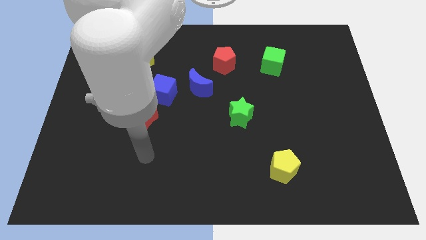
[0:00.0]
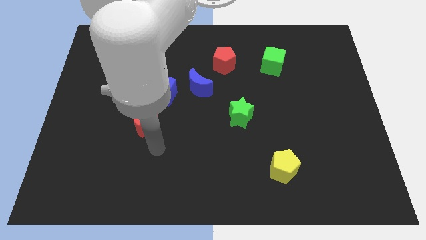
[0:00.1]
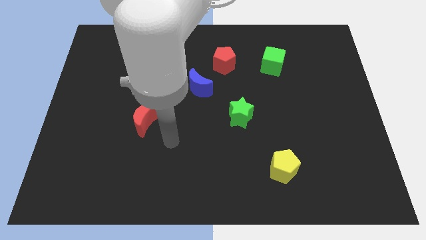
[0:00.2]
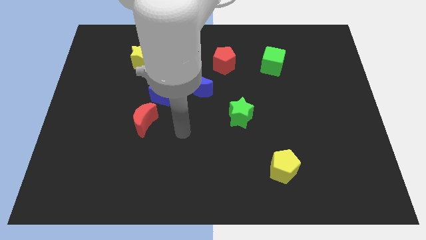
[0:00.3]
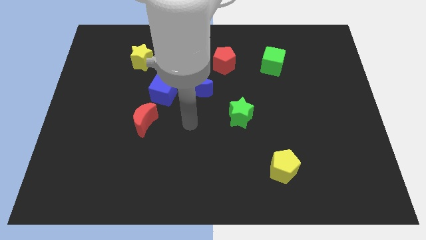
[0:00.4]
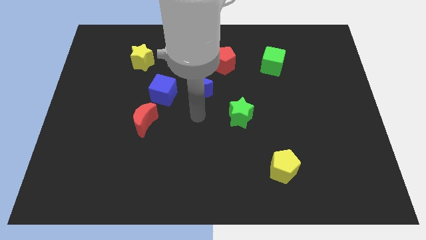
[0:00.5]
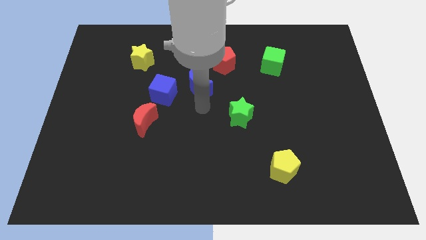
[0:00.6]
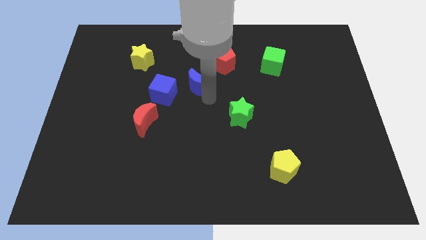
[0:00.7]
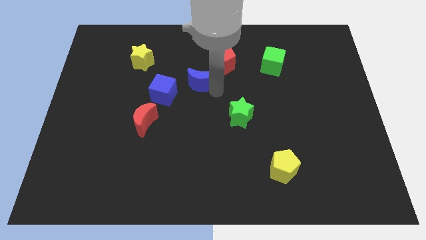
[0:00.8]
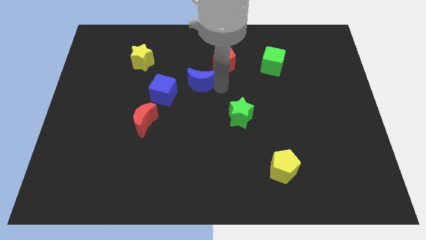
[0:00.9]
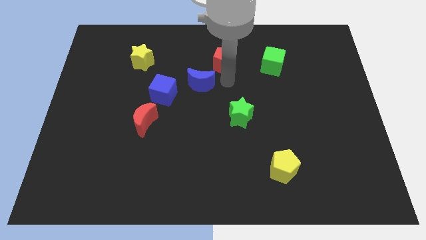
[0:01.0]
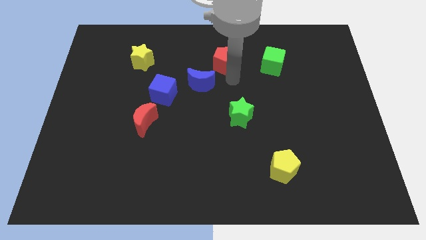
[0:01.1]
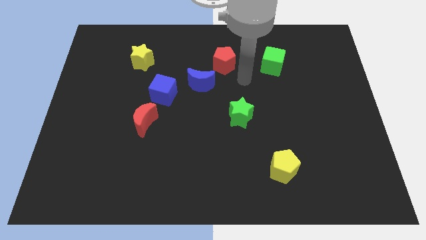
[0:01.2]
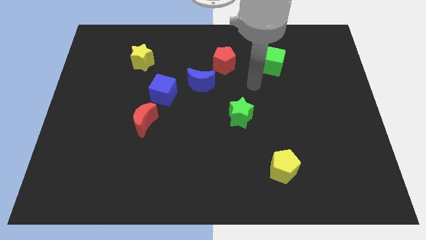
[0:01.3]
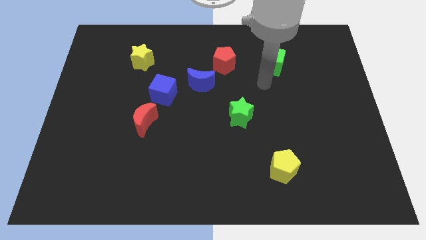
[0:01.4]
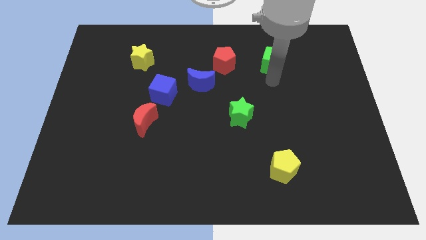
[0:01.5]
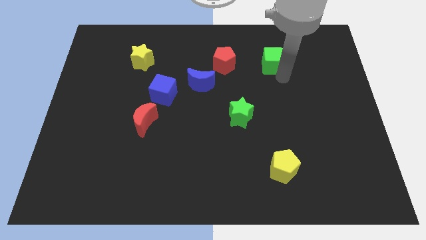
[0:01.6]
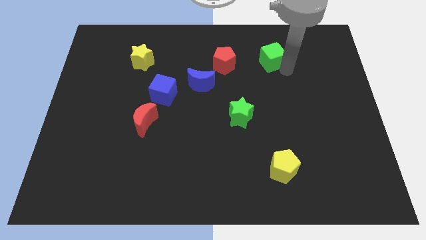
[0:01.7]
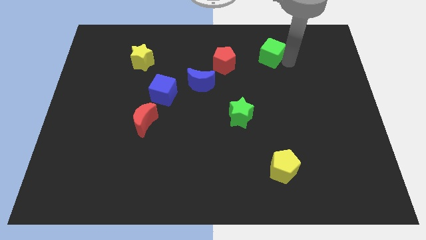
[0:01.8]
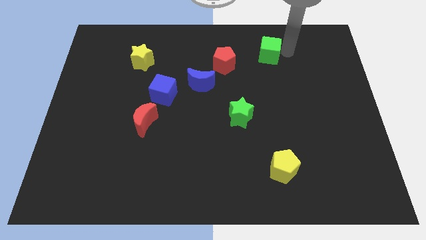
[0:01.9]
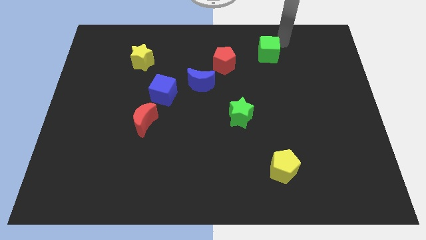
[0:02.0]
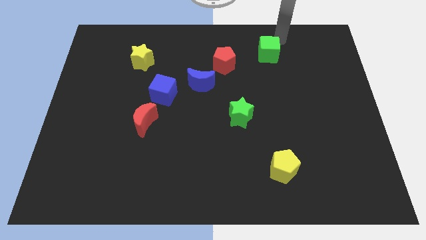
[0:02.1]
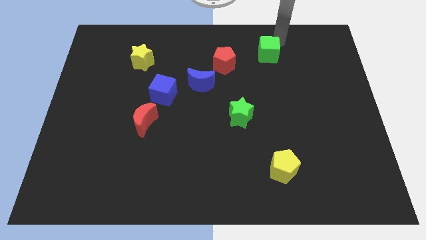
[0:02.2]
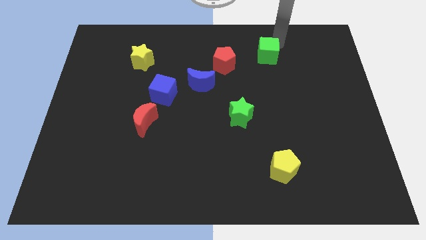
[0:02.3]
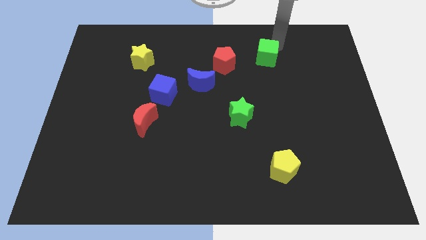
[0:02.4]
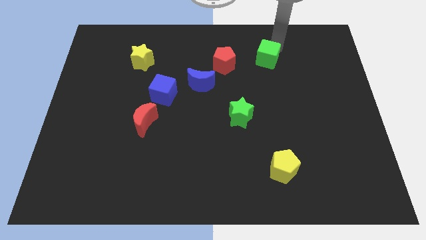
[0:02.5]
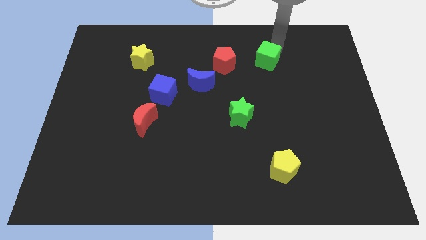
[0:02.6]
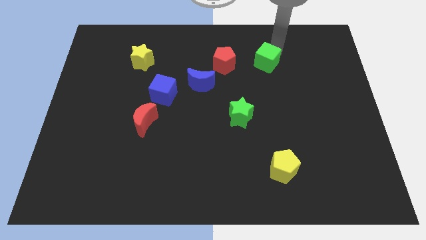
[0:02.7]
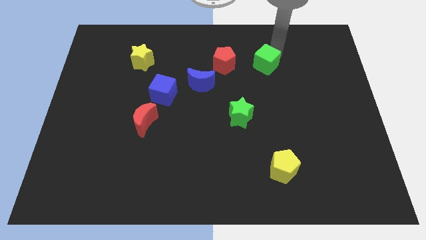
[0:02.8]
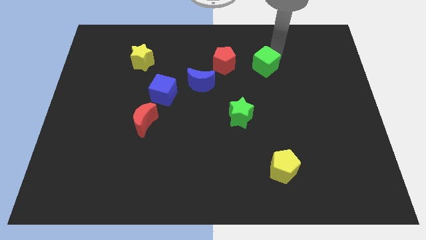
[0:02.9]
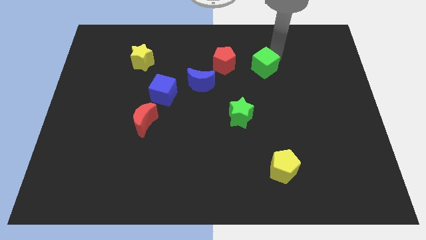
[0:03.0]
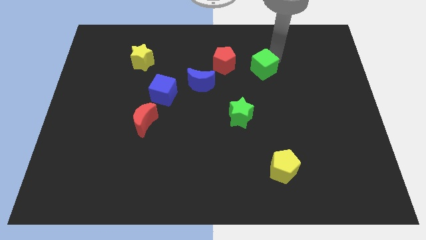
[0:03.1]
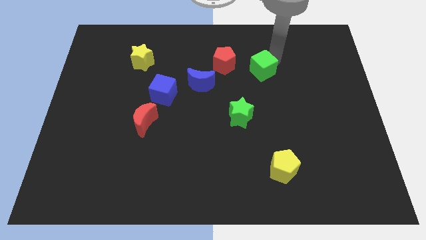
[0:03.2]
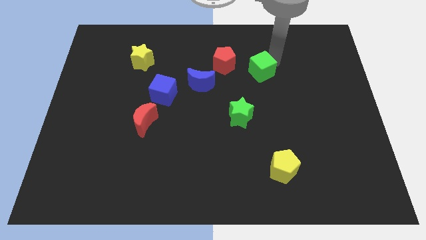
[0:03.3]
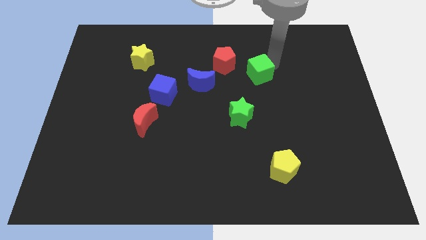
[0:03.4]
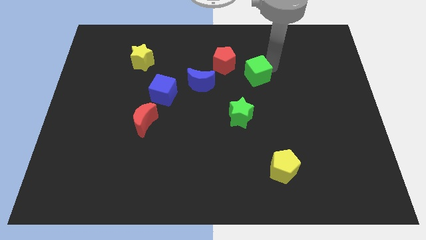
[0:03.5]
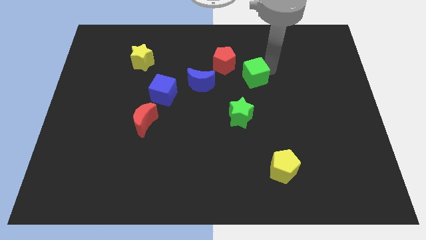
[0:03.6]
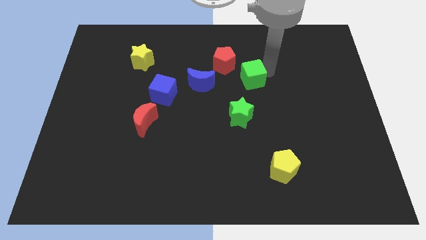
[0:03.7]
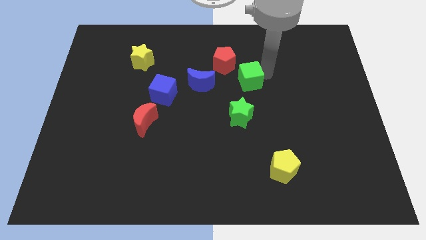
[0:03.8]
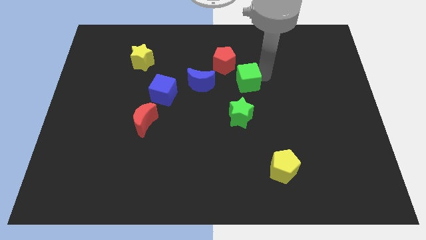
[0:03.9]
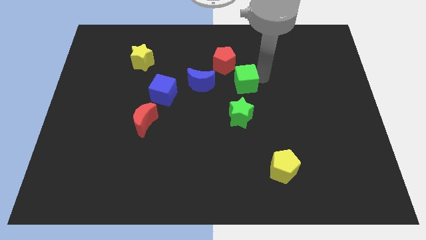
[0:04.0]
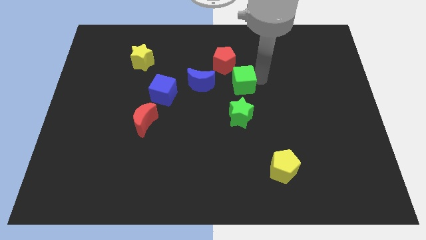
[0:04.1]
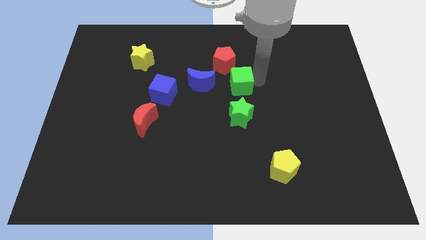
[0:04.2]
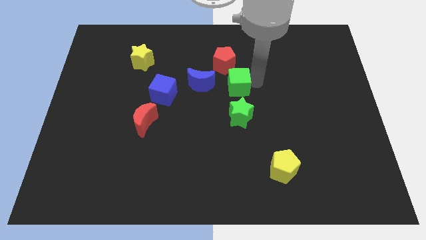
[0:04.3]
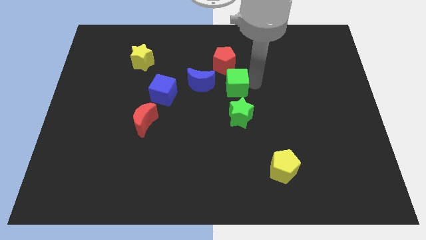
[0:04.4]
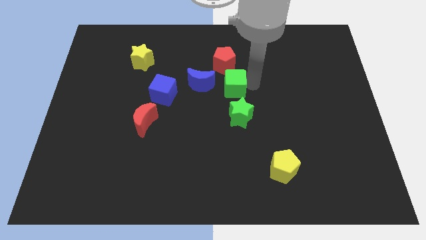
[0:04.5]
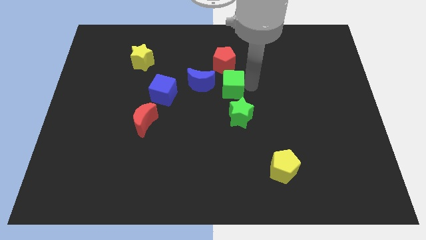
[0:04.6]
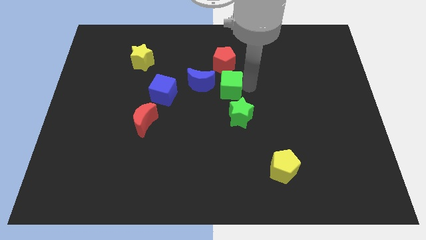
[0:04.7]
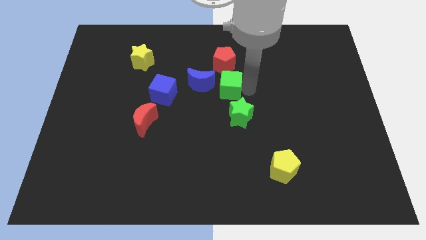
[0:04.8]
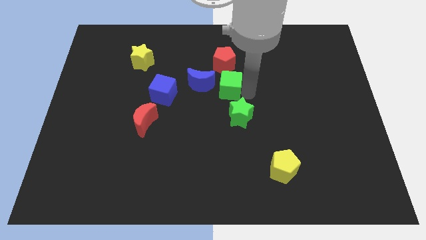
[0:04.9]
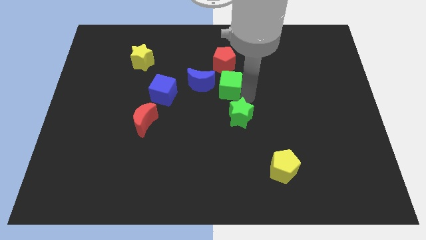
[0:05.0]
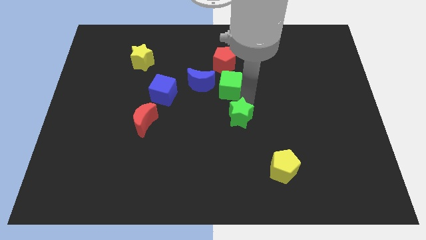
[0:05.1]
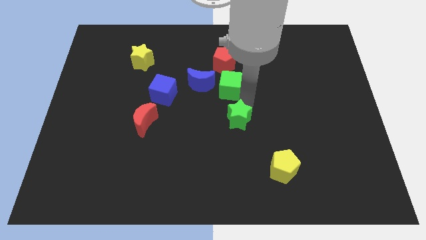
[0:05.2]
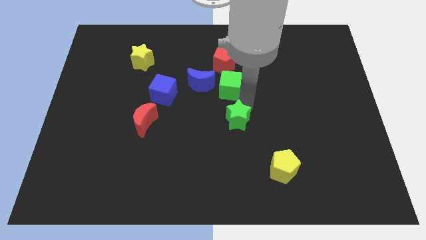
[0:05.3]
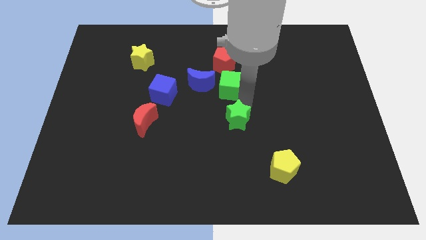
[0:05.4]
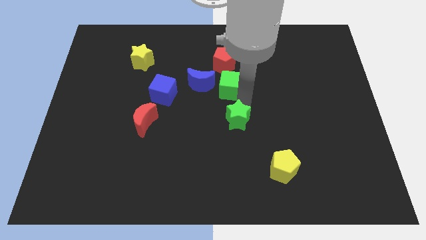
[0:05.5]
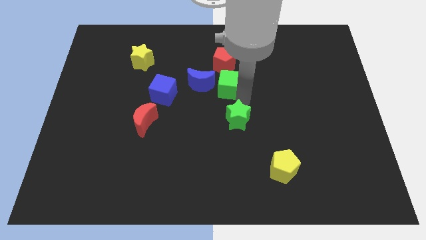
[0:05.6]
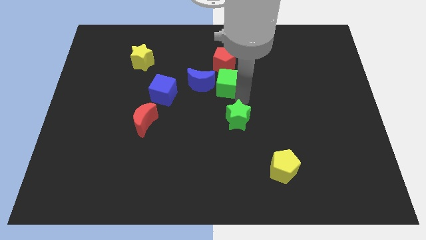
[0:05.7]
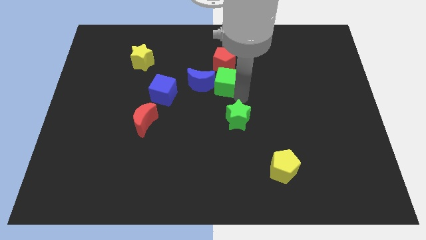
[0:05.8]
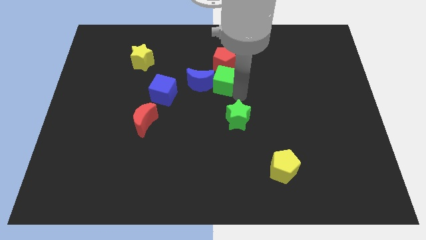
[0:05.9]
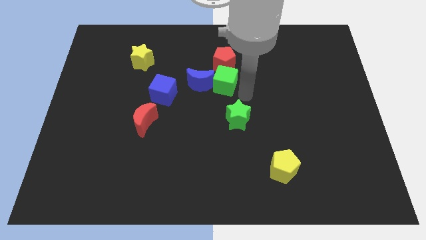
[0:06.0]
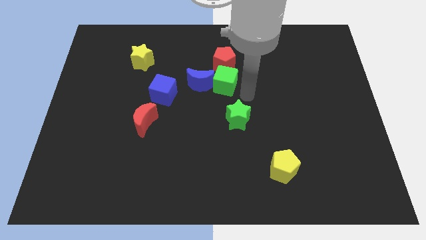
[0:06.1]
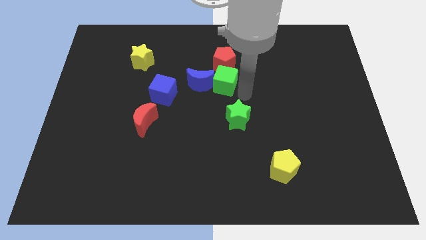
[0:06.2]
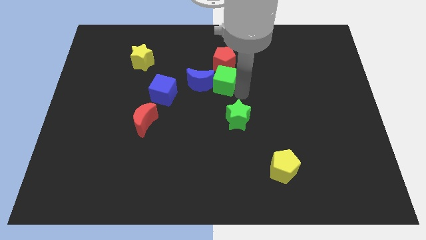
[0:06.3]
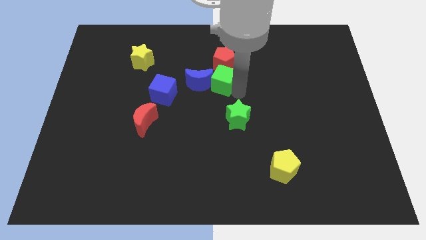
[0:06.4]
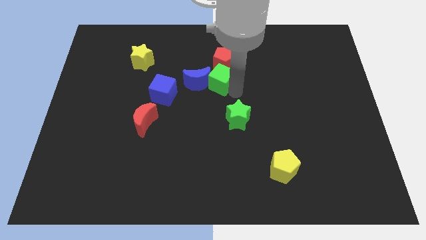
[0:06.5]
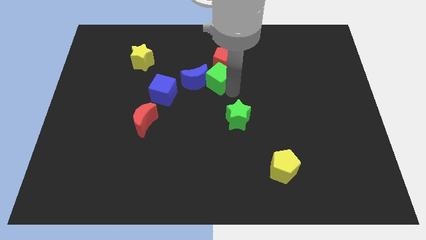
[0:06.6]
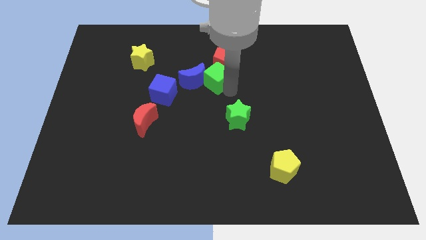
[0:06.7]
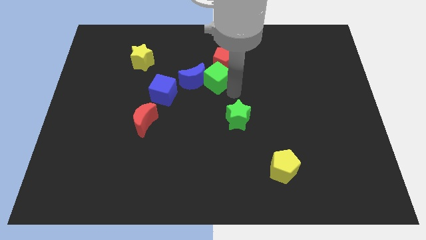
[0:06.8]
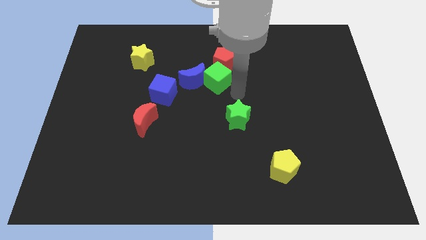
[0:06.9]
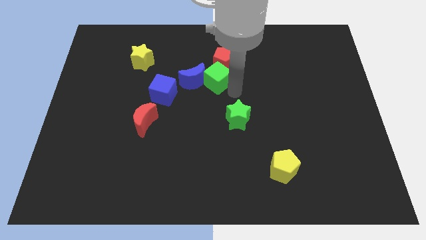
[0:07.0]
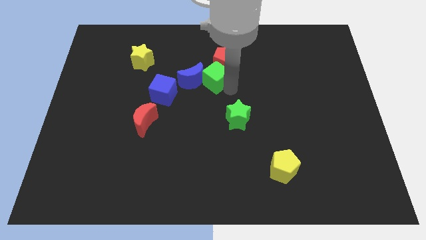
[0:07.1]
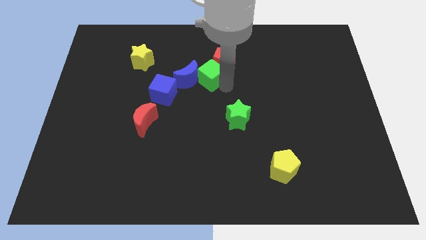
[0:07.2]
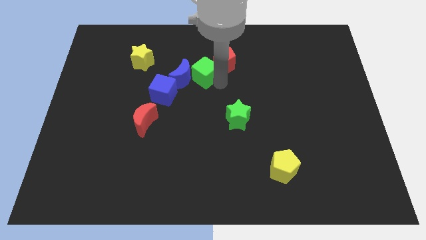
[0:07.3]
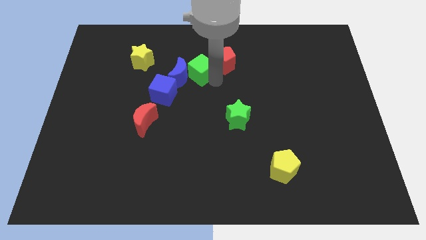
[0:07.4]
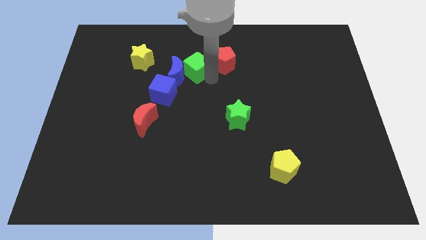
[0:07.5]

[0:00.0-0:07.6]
slide the green cube just right of the yellow star
